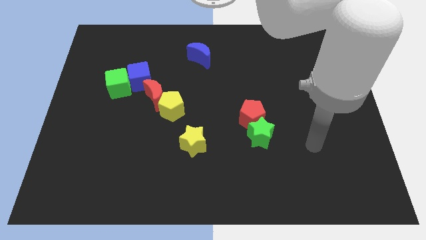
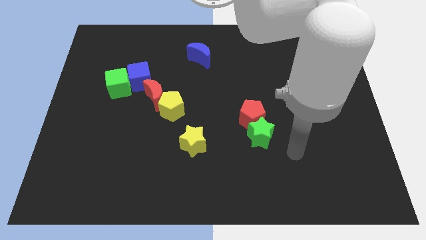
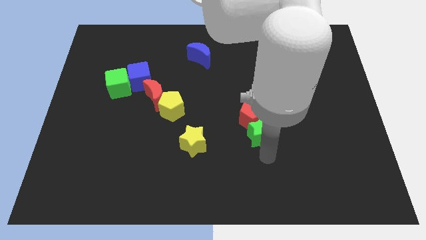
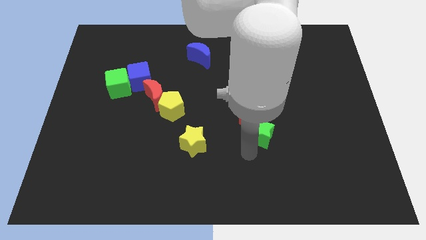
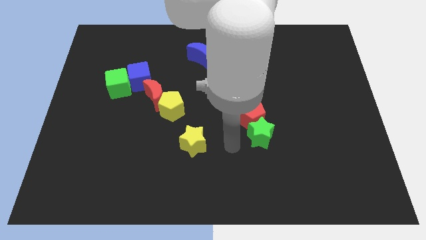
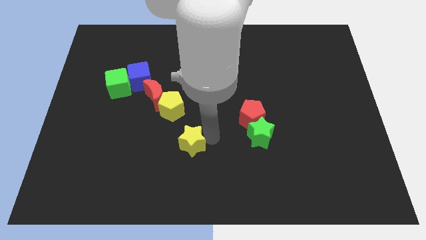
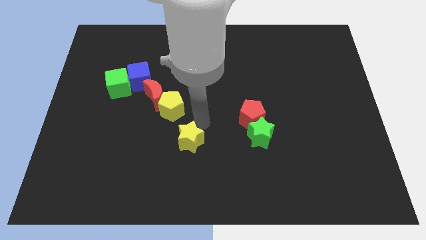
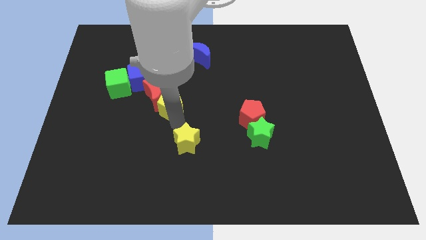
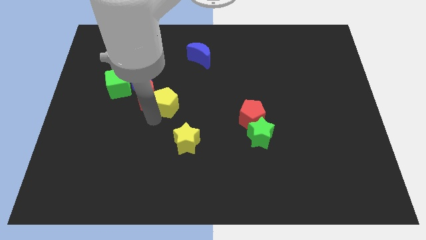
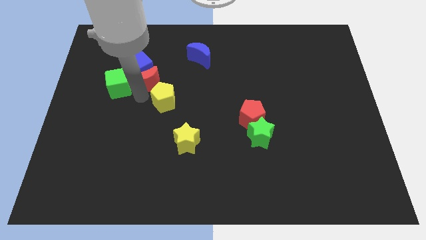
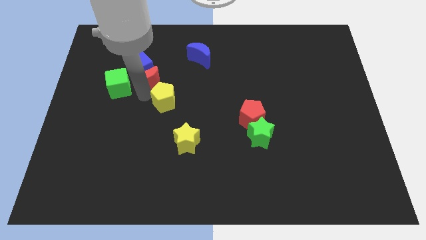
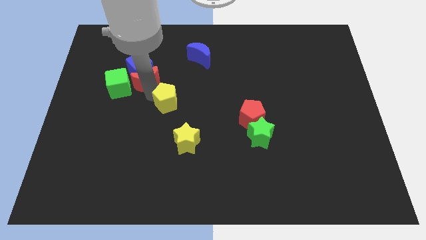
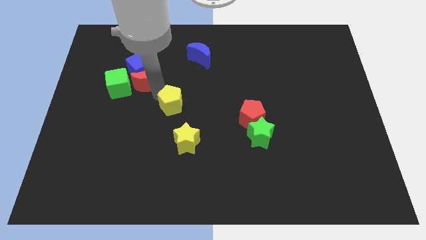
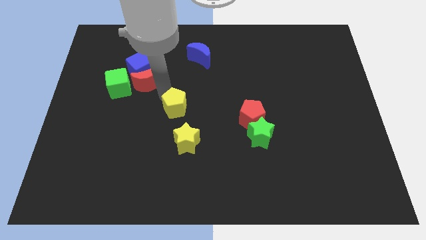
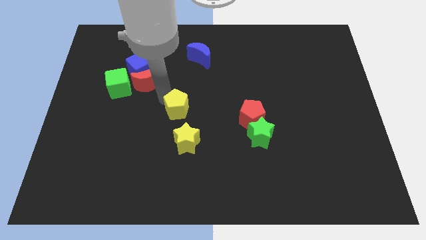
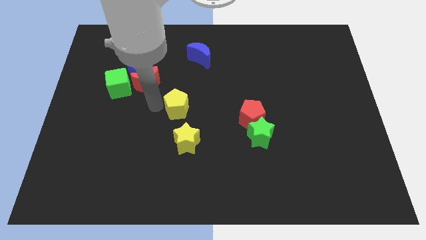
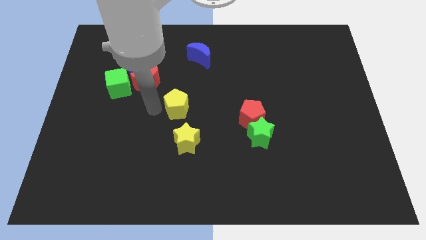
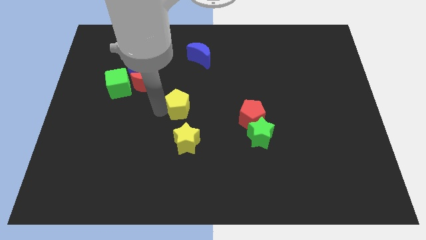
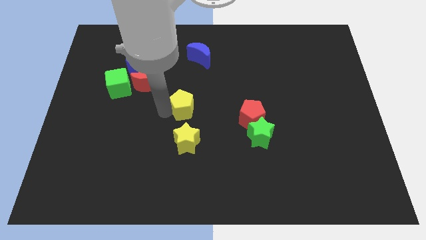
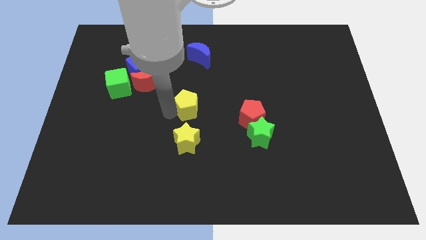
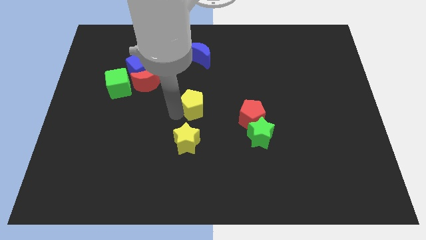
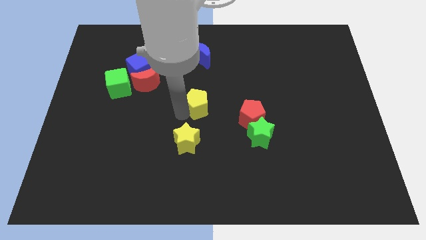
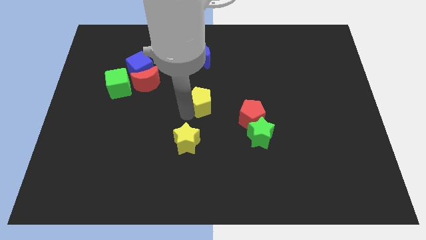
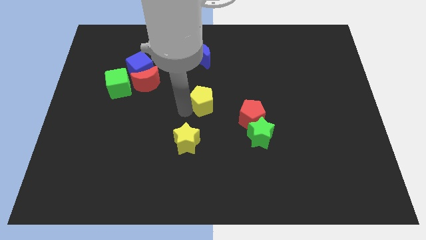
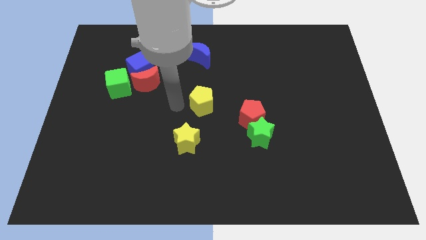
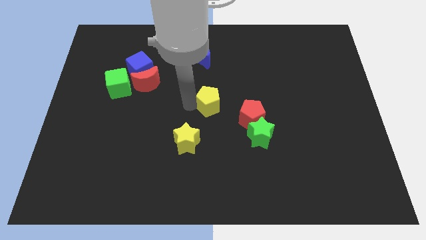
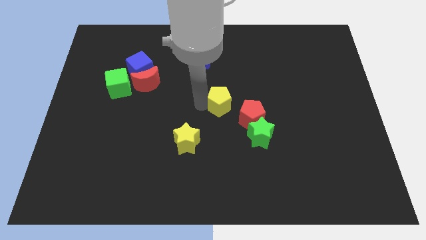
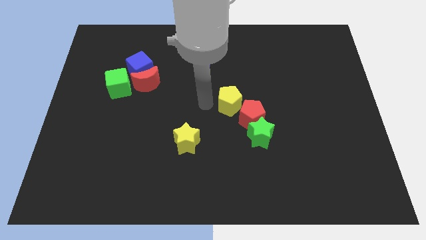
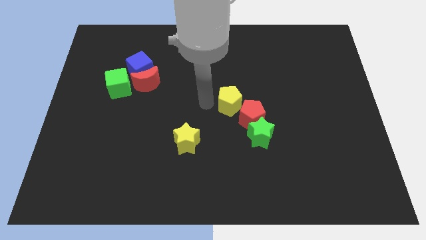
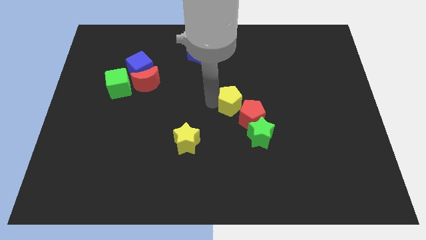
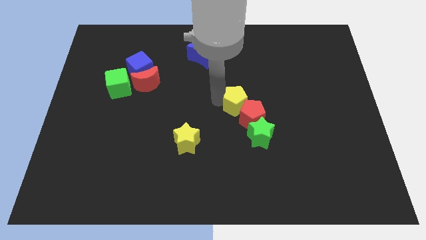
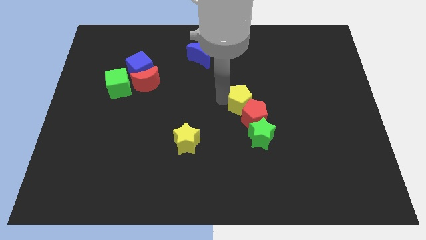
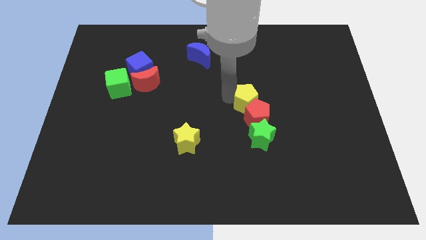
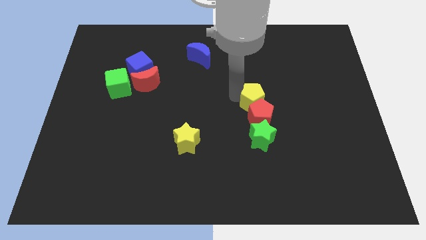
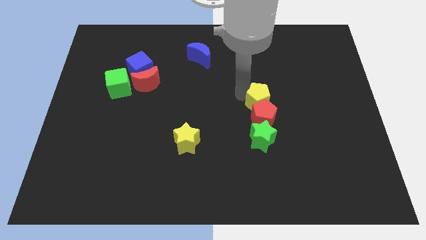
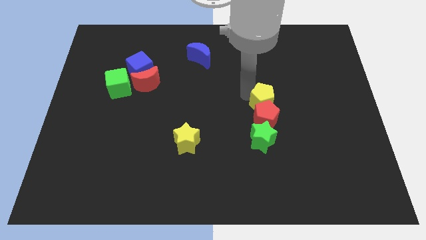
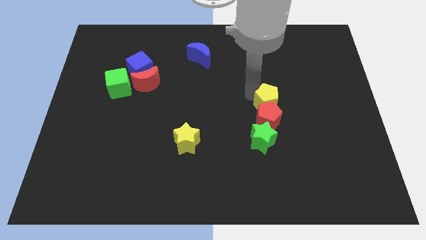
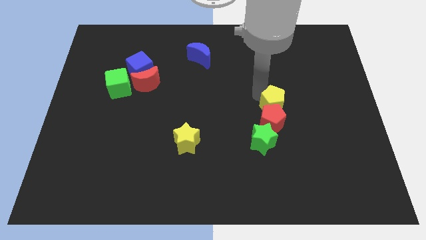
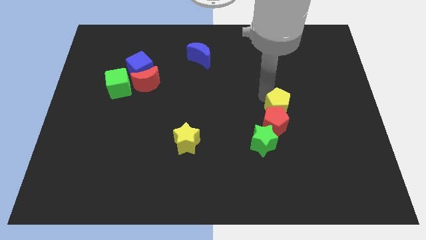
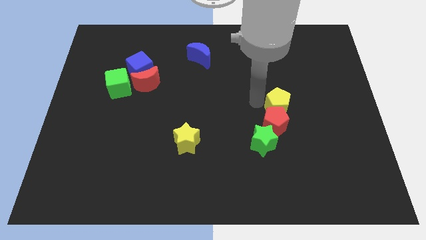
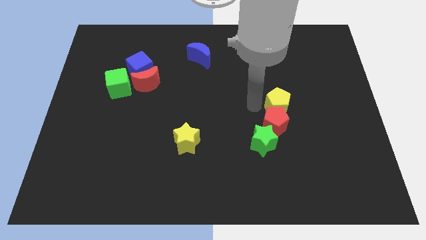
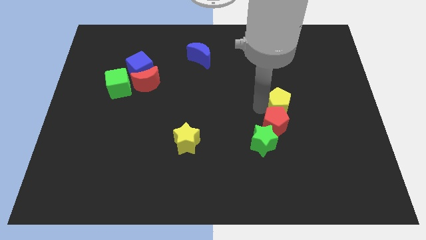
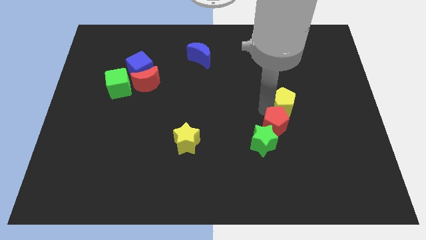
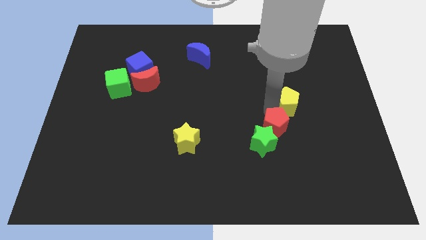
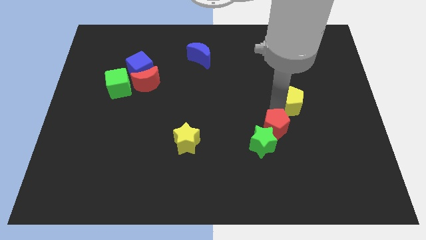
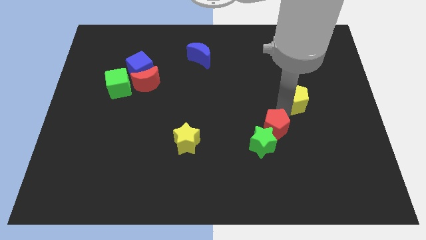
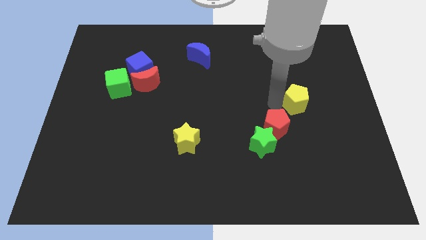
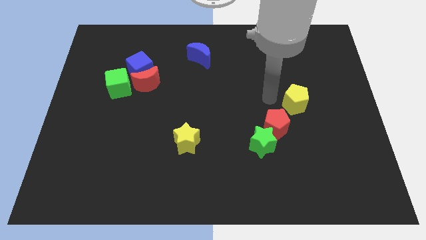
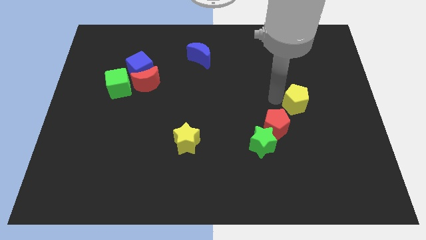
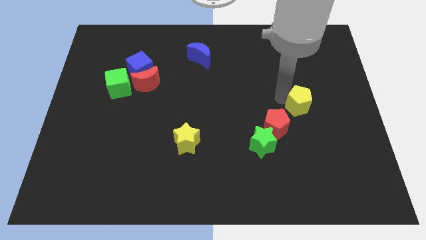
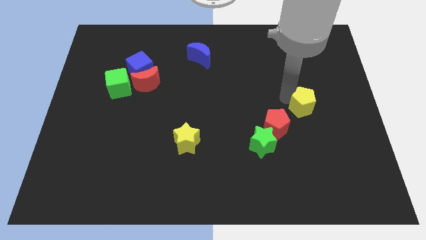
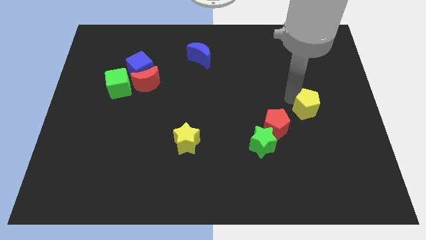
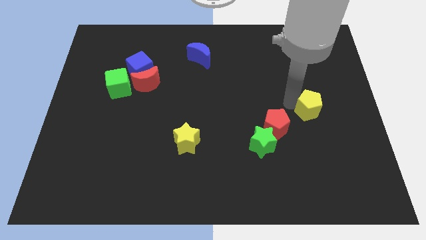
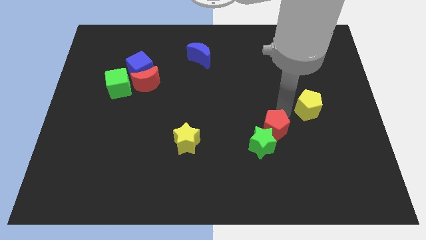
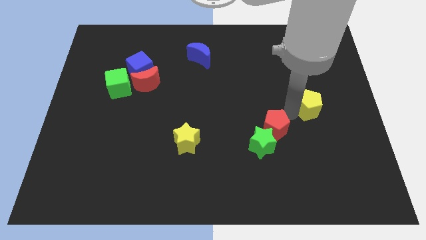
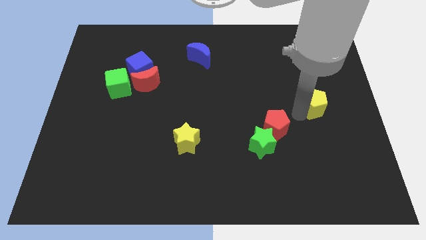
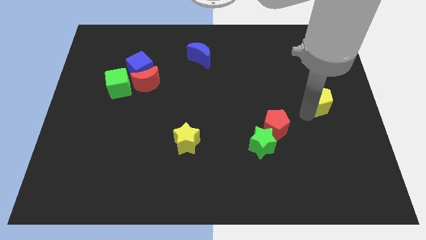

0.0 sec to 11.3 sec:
push the yellow pentagon to the right side of the board
